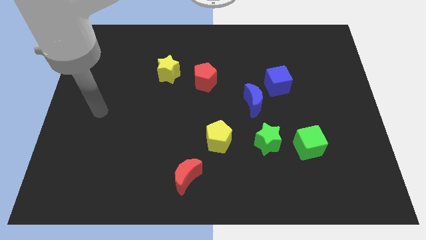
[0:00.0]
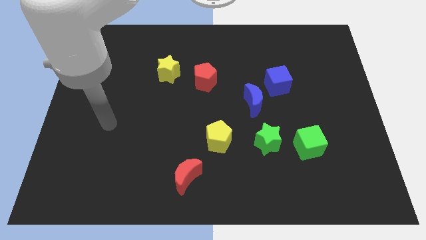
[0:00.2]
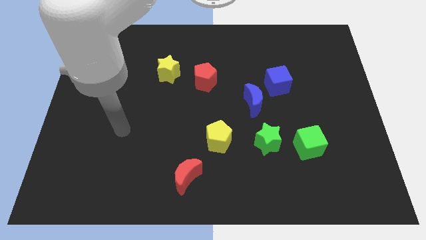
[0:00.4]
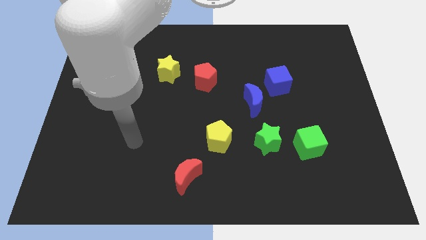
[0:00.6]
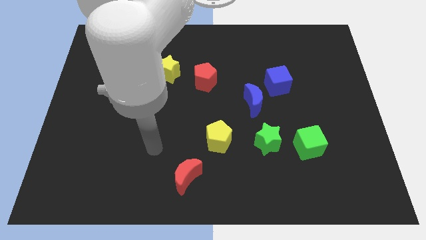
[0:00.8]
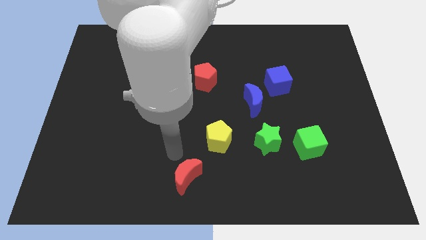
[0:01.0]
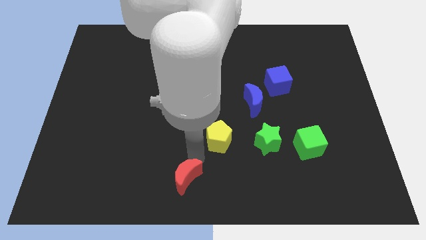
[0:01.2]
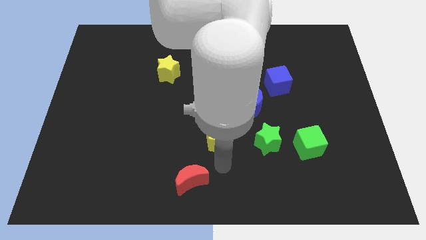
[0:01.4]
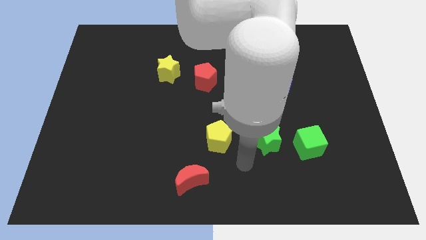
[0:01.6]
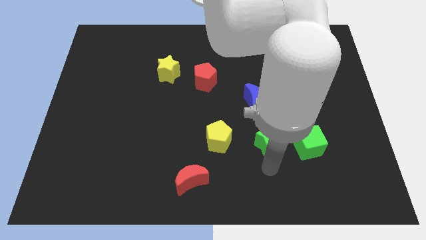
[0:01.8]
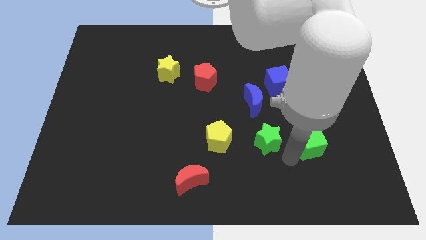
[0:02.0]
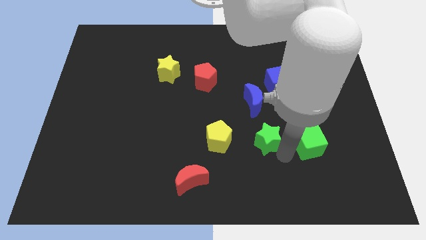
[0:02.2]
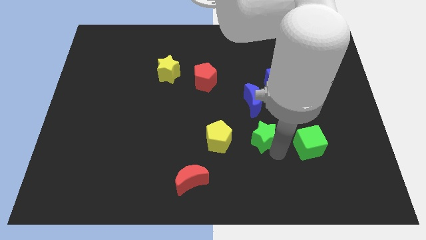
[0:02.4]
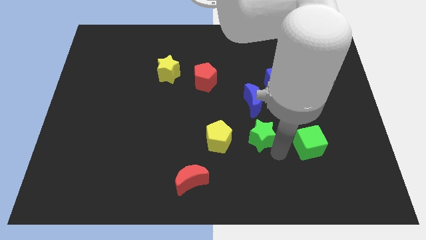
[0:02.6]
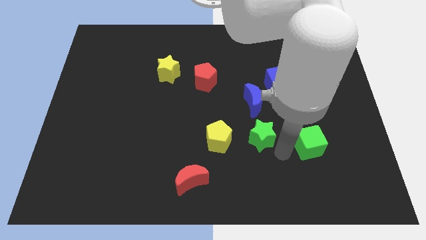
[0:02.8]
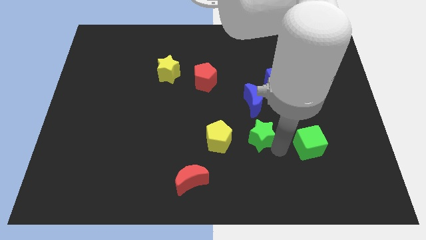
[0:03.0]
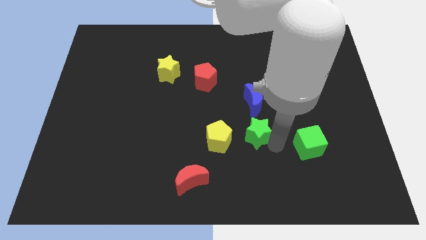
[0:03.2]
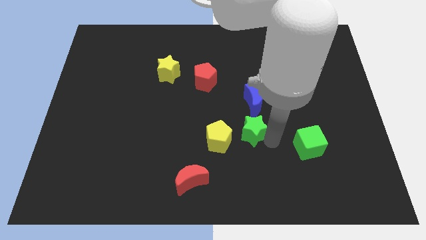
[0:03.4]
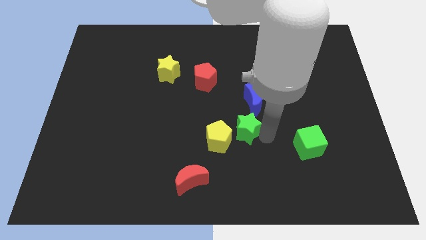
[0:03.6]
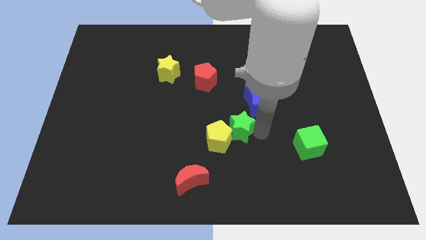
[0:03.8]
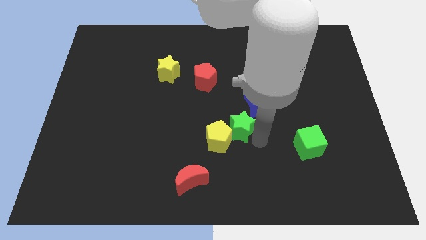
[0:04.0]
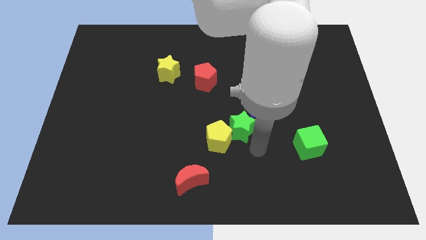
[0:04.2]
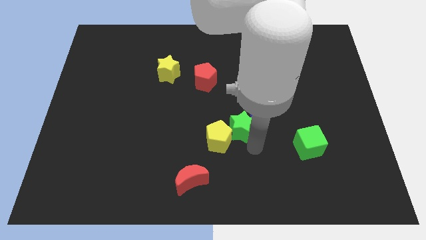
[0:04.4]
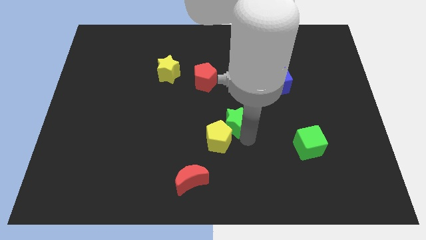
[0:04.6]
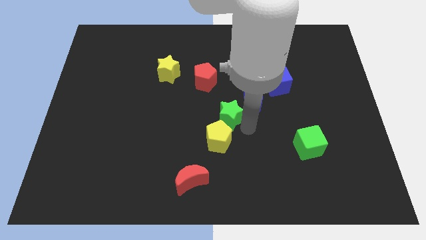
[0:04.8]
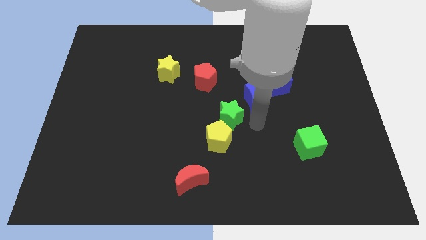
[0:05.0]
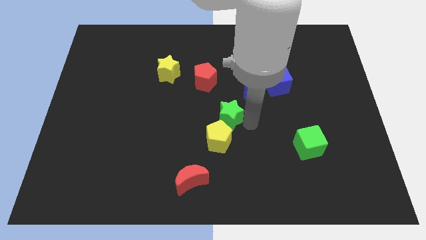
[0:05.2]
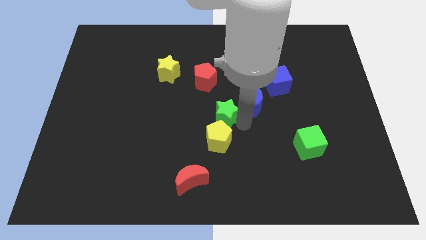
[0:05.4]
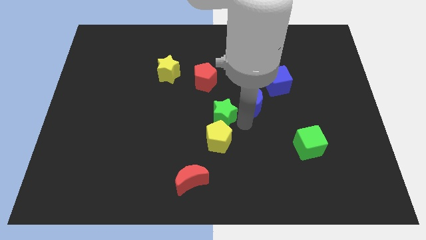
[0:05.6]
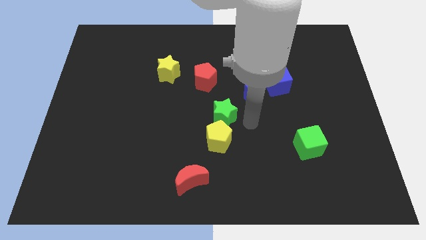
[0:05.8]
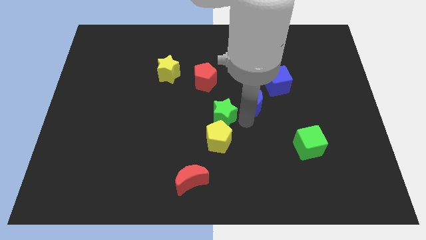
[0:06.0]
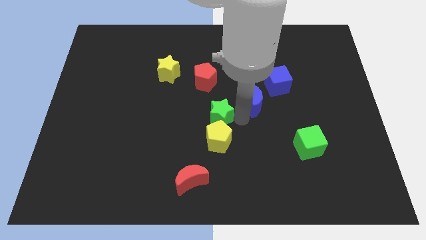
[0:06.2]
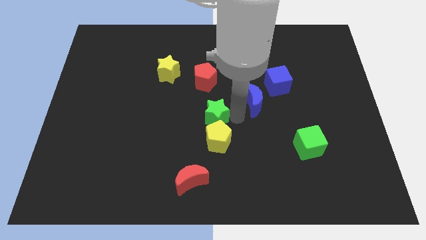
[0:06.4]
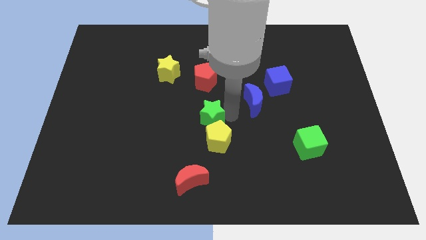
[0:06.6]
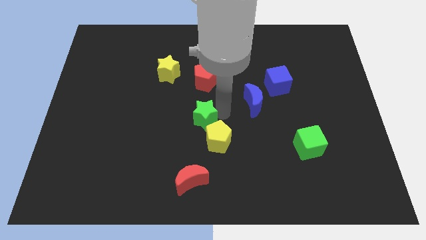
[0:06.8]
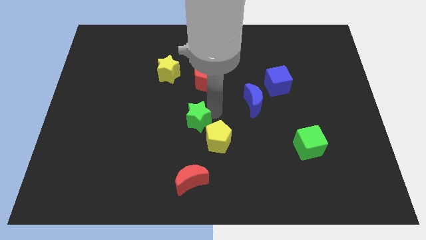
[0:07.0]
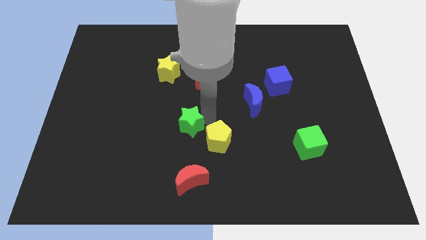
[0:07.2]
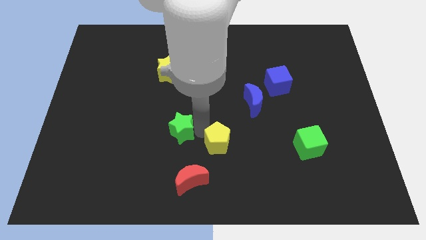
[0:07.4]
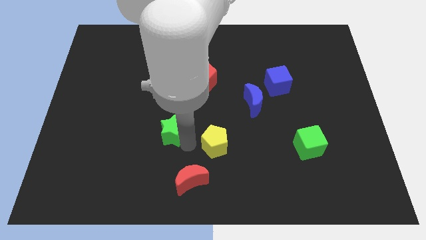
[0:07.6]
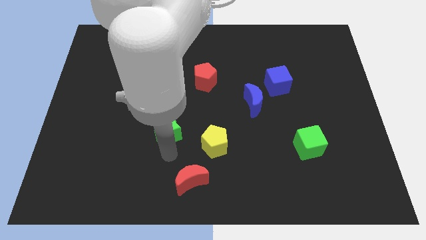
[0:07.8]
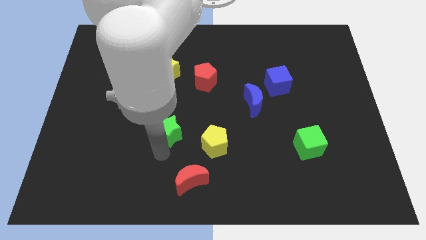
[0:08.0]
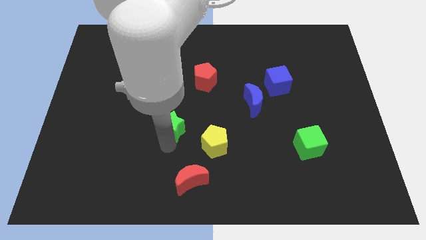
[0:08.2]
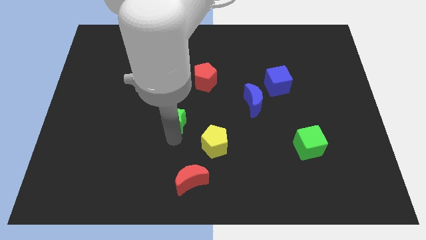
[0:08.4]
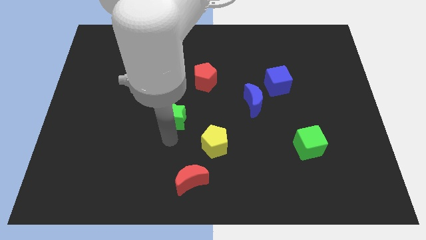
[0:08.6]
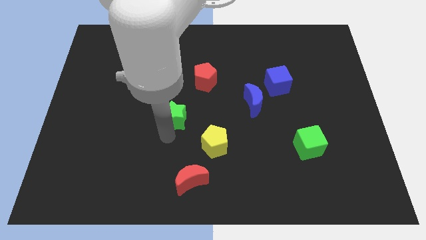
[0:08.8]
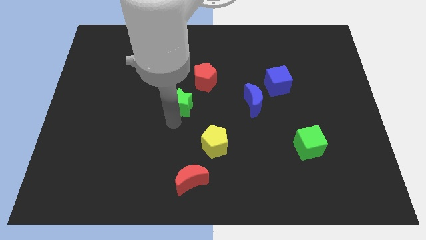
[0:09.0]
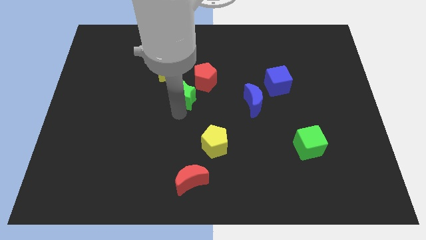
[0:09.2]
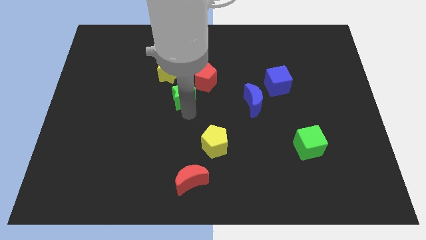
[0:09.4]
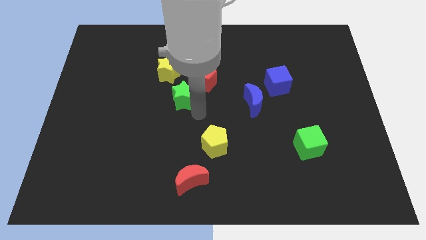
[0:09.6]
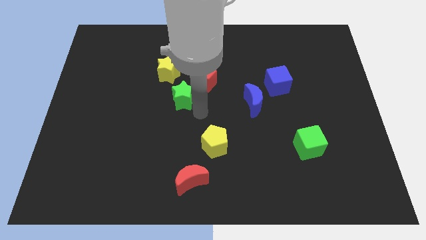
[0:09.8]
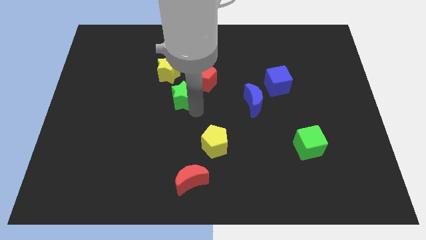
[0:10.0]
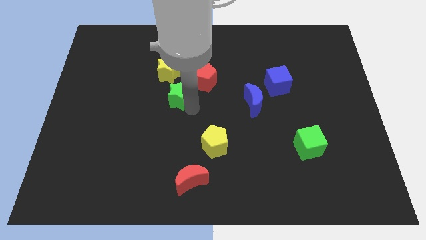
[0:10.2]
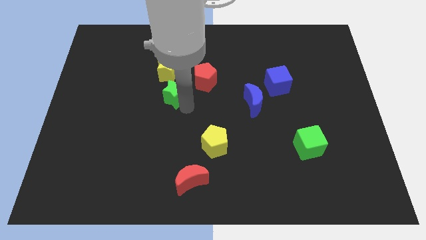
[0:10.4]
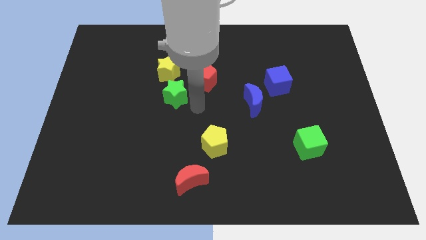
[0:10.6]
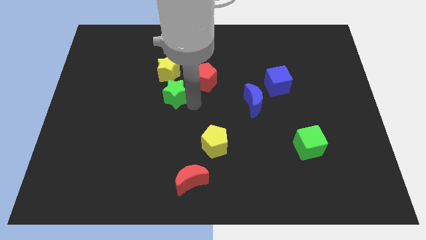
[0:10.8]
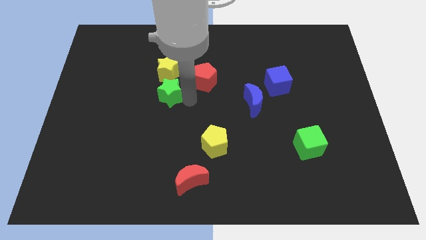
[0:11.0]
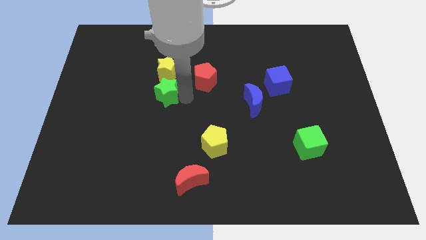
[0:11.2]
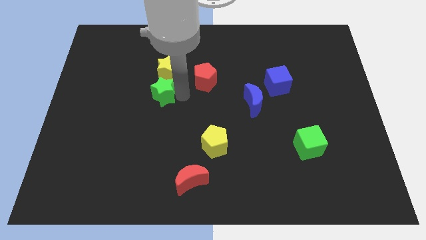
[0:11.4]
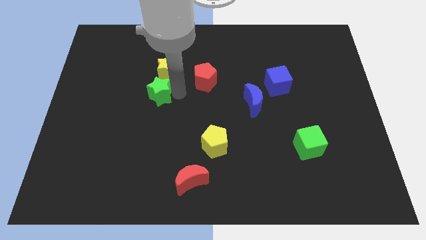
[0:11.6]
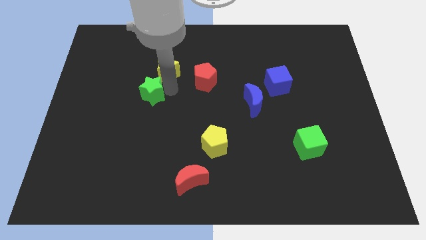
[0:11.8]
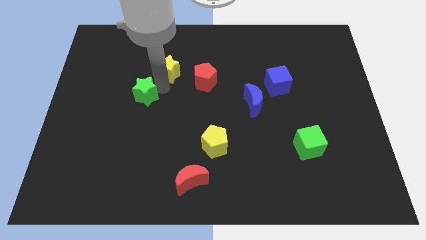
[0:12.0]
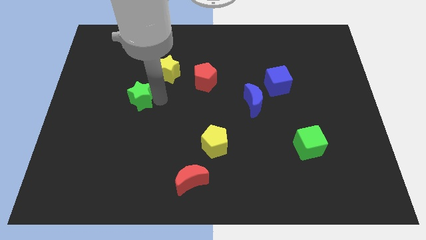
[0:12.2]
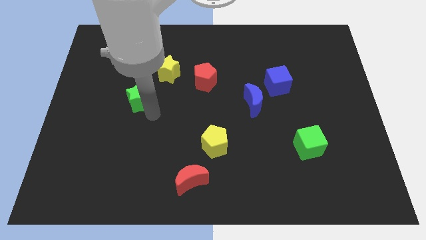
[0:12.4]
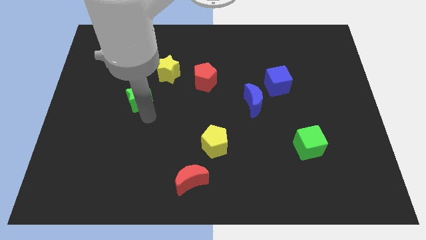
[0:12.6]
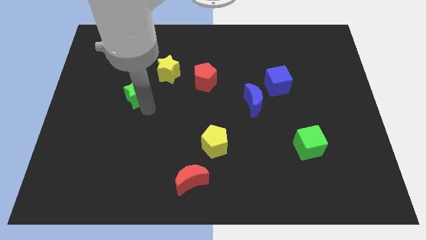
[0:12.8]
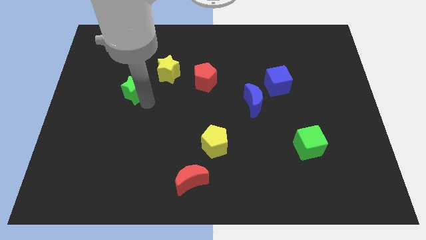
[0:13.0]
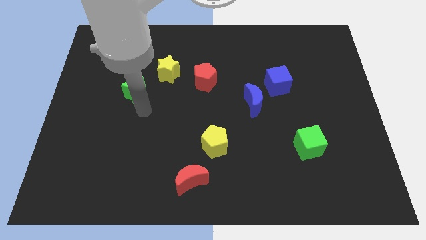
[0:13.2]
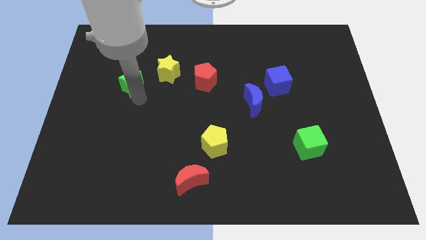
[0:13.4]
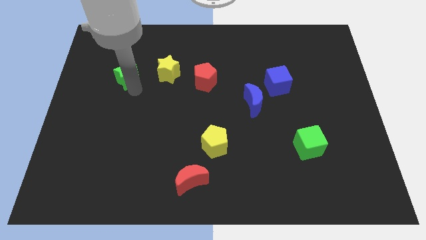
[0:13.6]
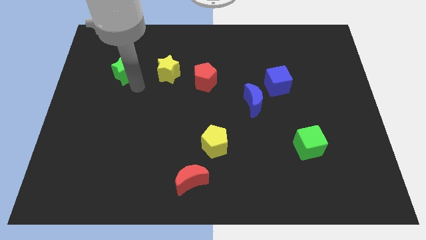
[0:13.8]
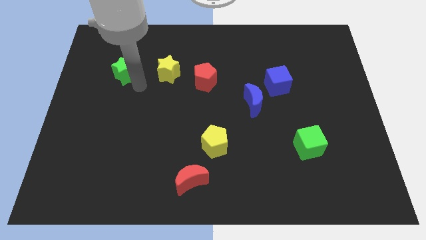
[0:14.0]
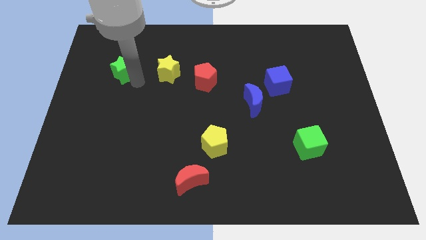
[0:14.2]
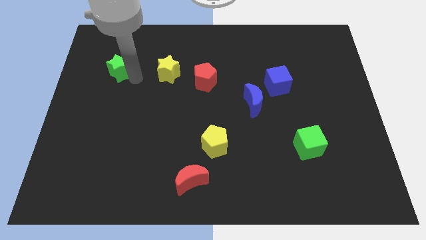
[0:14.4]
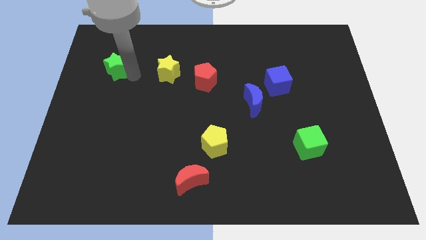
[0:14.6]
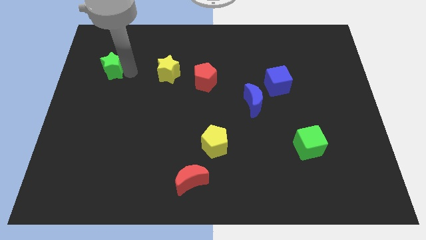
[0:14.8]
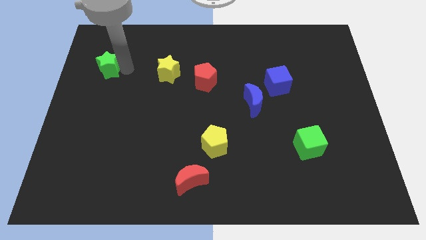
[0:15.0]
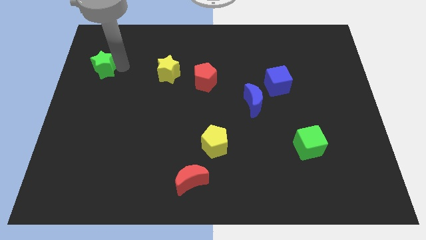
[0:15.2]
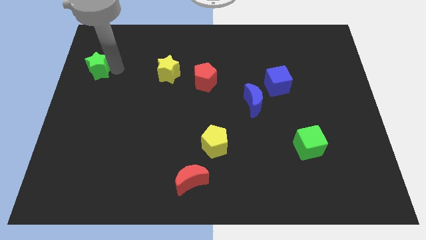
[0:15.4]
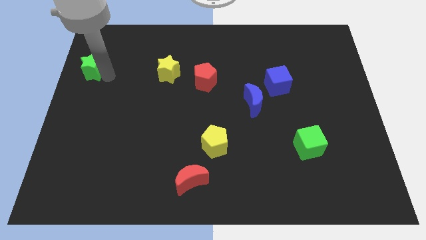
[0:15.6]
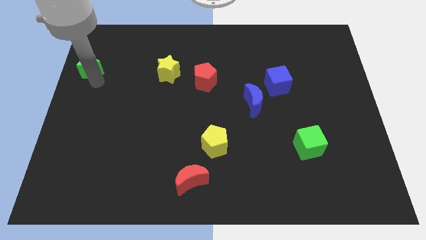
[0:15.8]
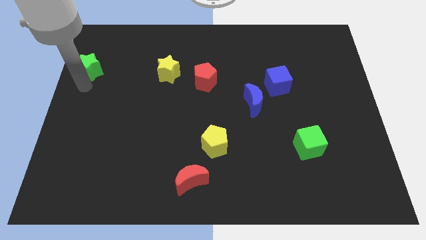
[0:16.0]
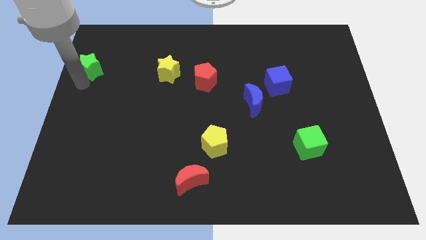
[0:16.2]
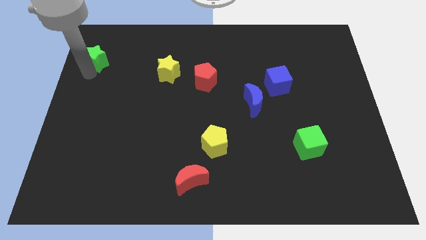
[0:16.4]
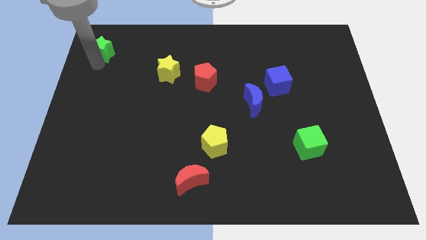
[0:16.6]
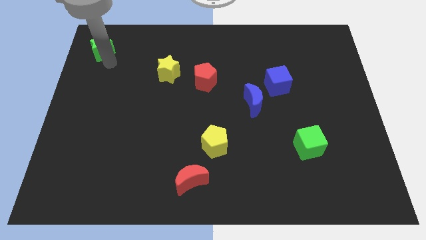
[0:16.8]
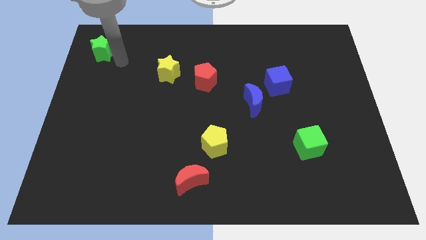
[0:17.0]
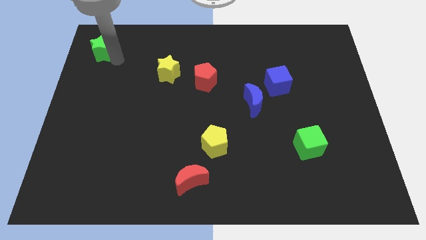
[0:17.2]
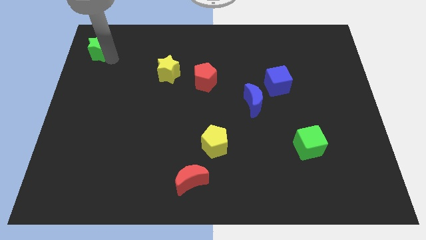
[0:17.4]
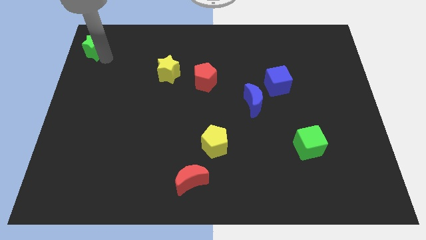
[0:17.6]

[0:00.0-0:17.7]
put the green star to the top left corner
